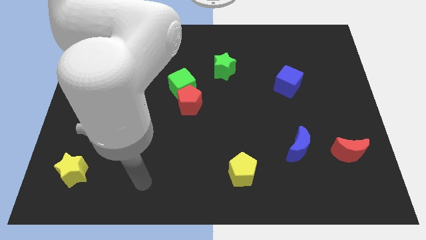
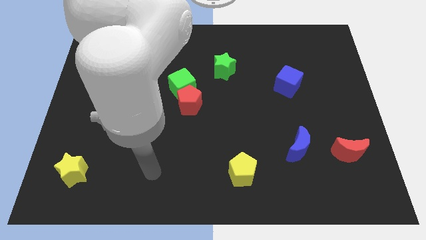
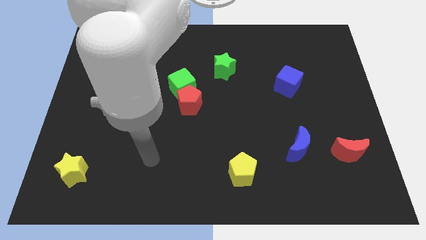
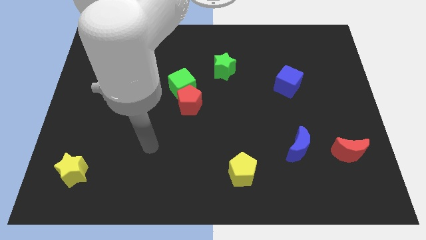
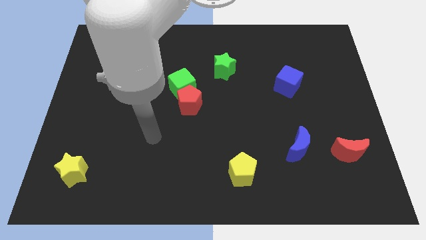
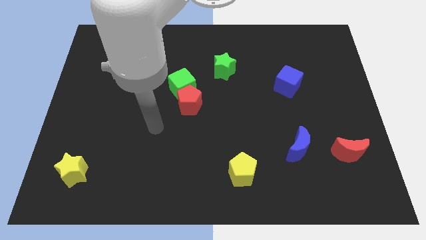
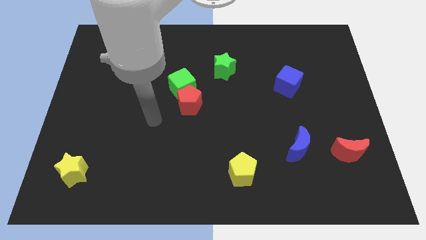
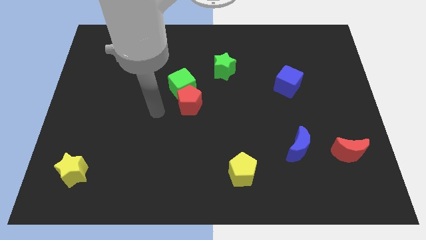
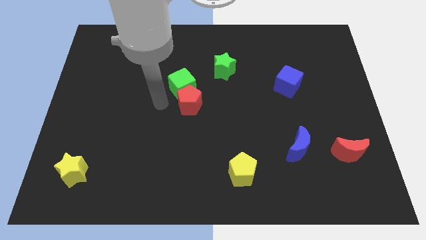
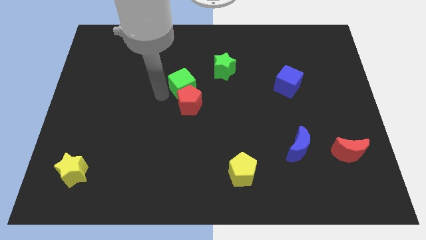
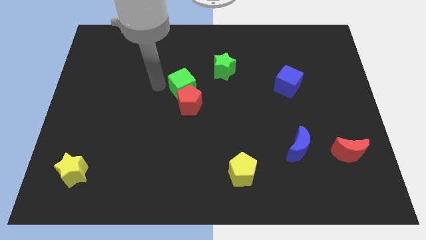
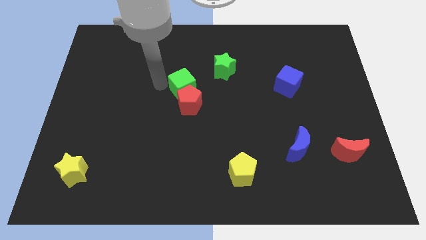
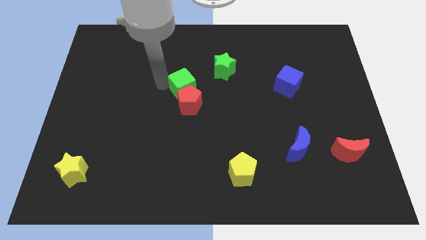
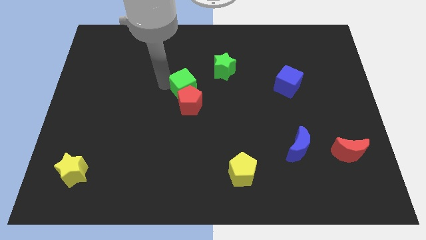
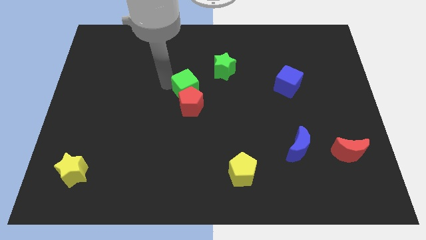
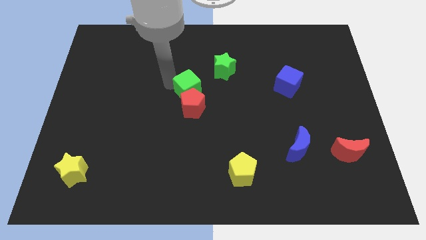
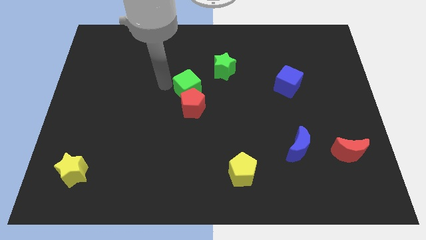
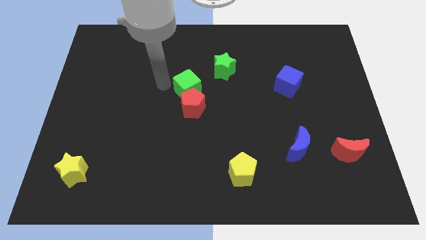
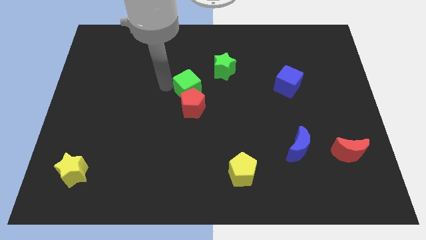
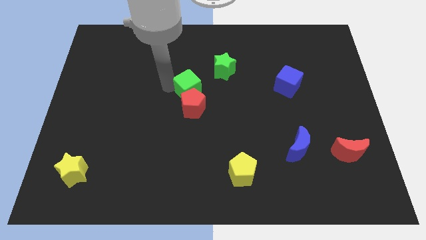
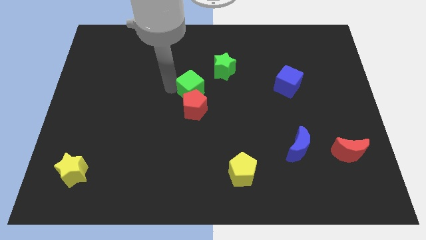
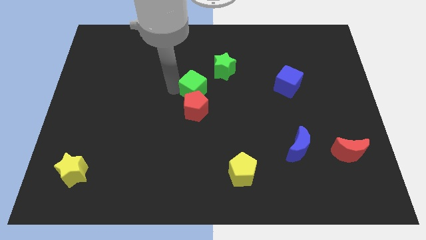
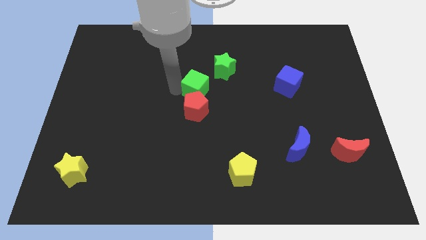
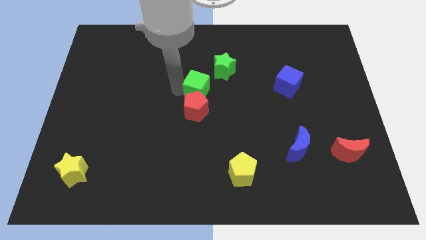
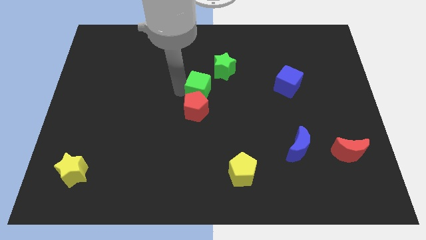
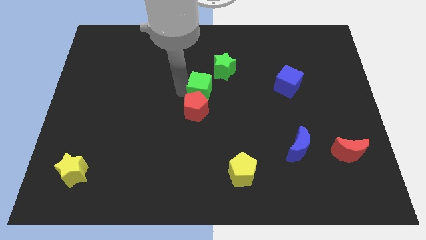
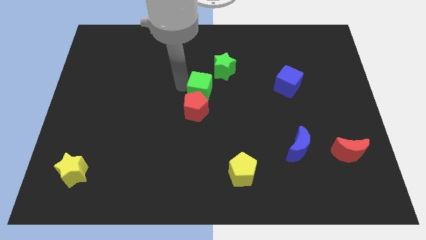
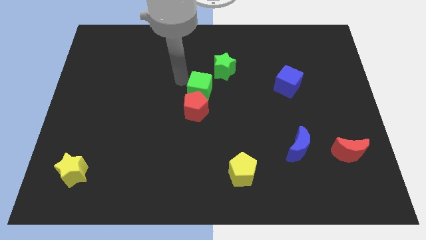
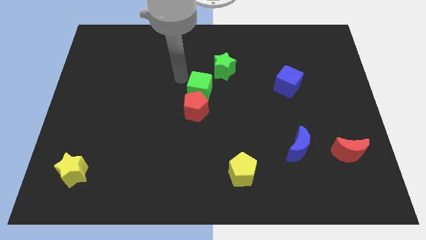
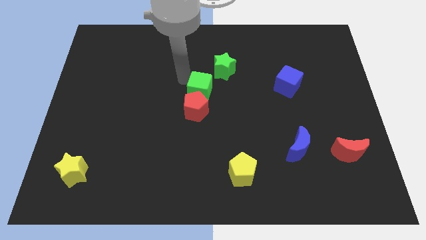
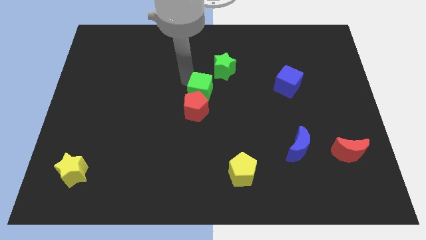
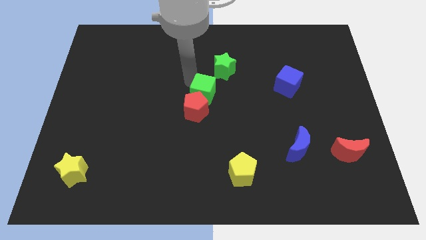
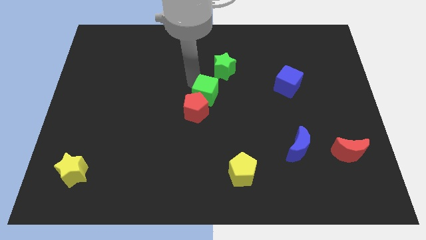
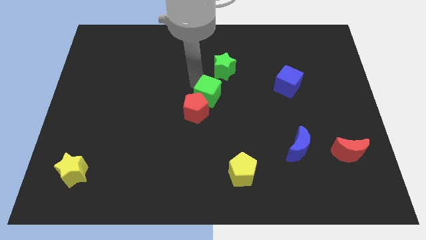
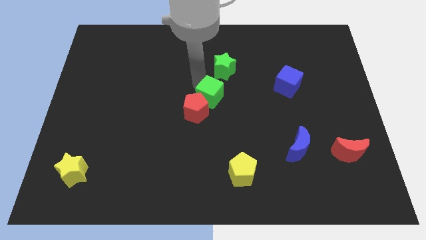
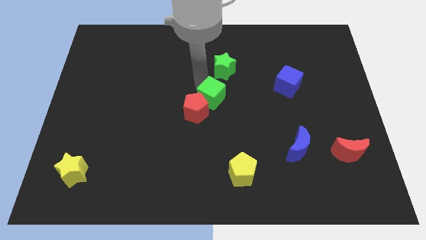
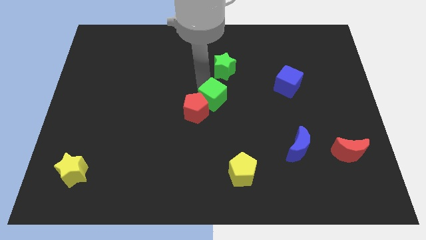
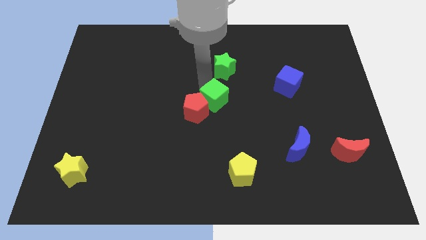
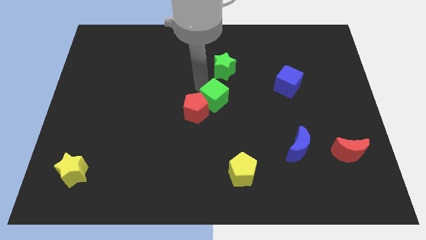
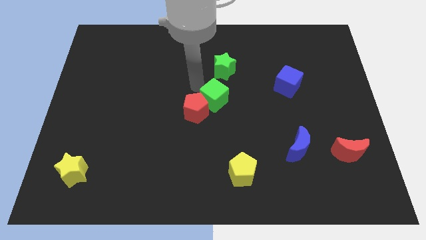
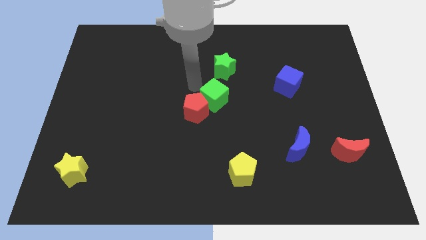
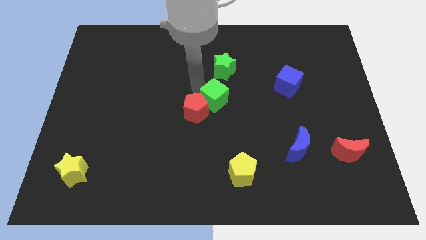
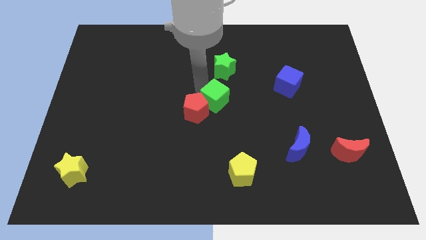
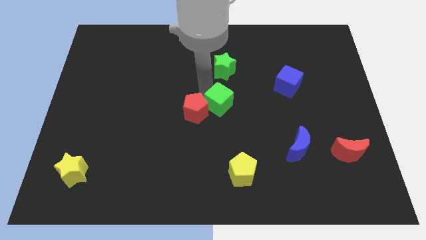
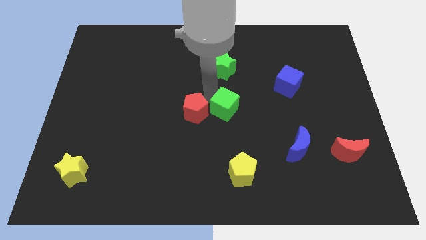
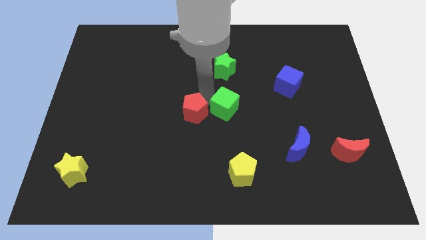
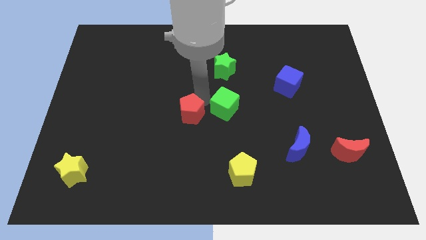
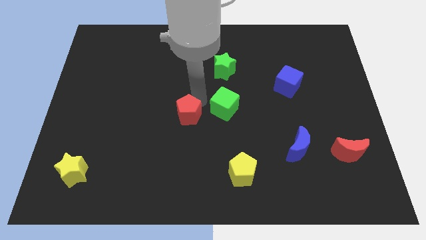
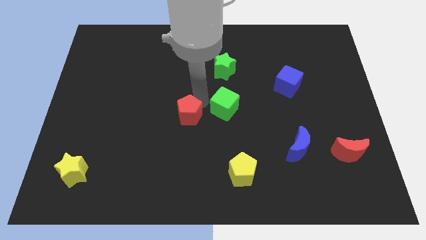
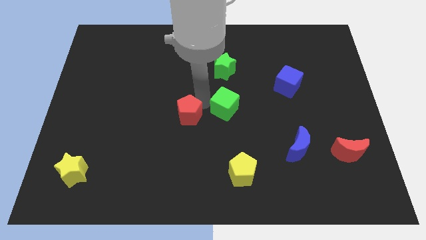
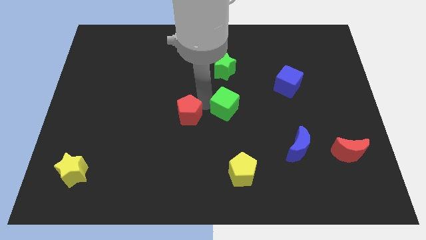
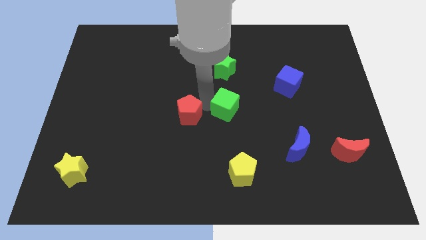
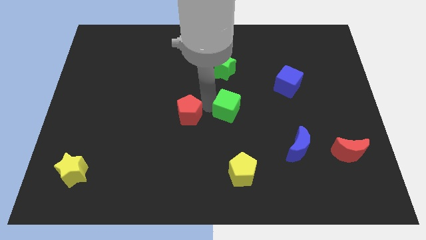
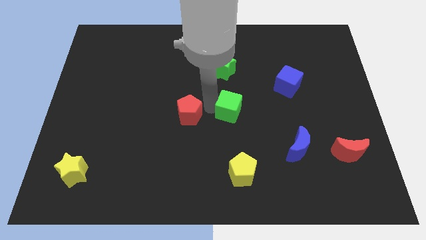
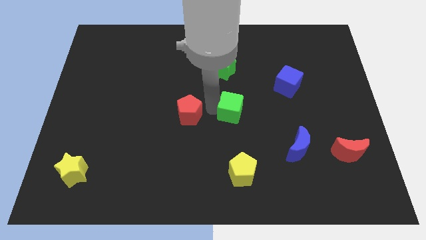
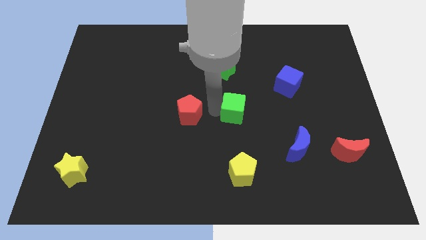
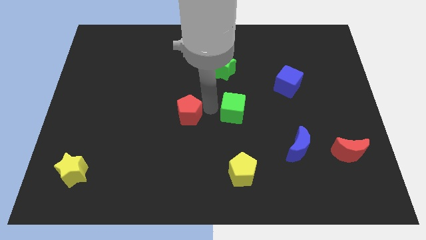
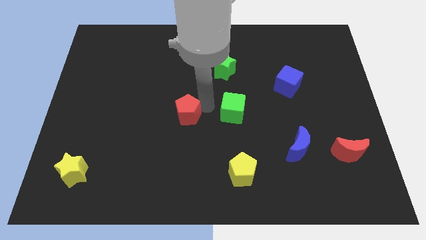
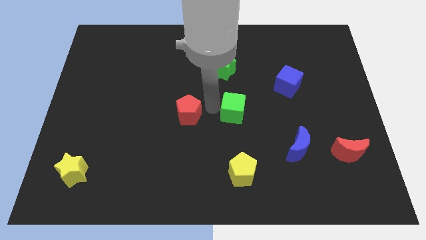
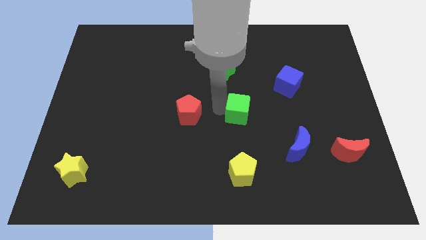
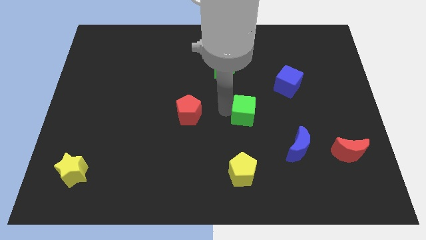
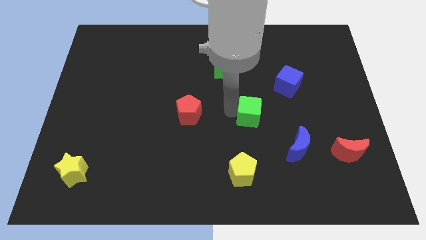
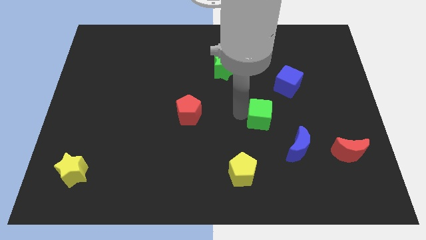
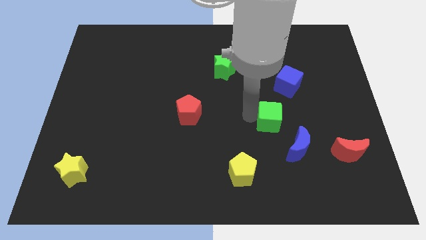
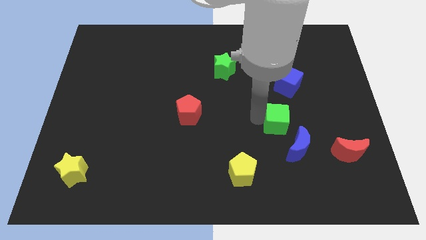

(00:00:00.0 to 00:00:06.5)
move the green cube to the bottom side of the blue cube
